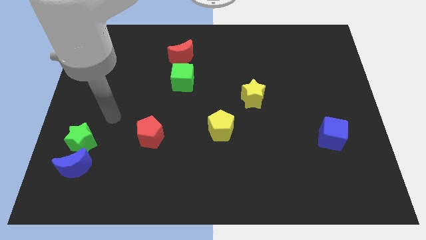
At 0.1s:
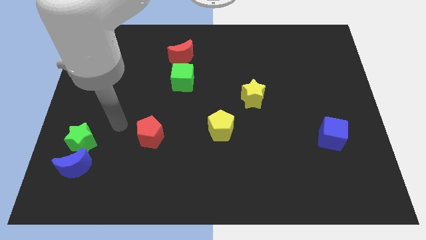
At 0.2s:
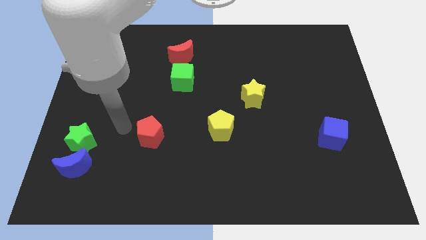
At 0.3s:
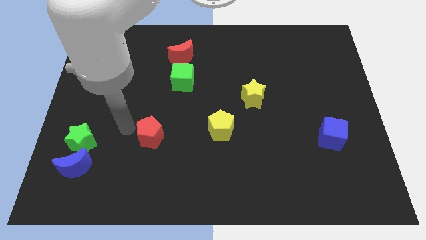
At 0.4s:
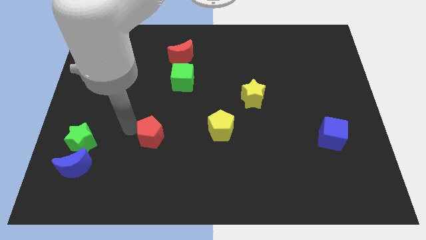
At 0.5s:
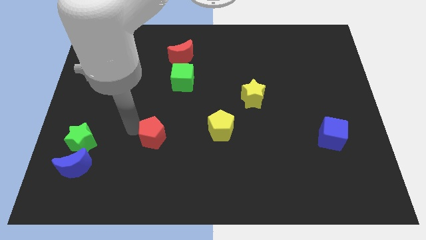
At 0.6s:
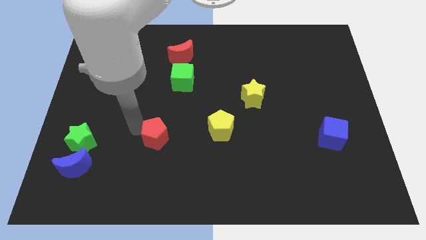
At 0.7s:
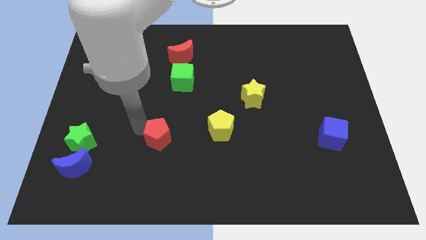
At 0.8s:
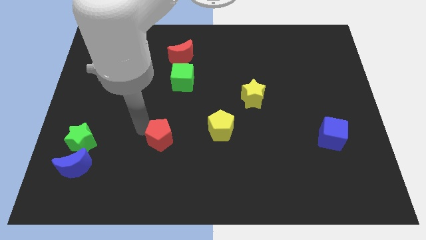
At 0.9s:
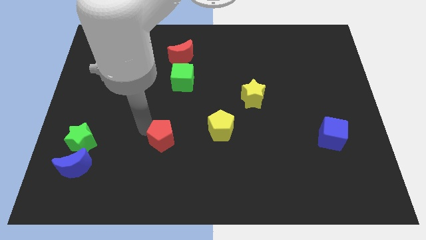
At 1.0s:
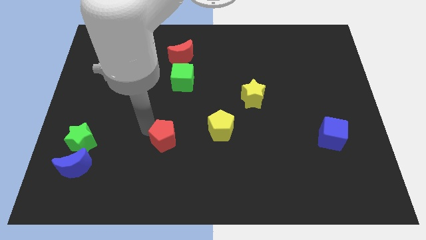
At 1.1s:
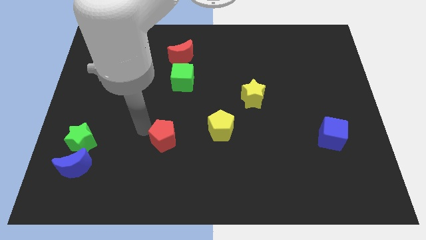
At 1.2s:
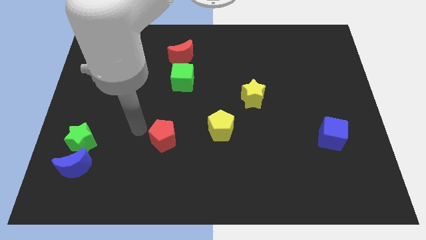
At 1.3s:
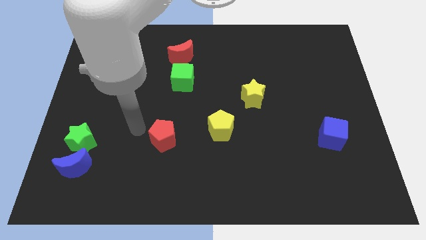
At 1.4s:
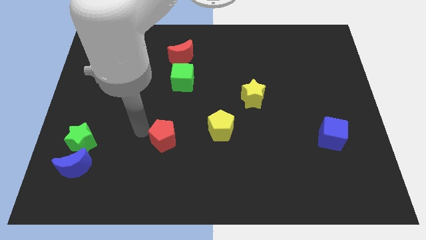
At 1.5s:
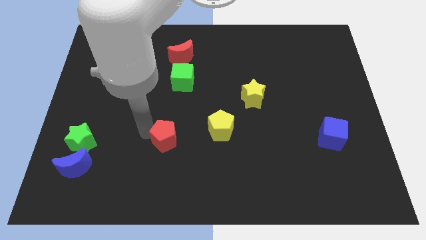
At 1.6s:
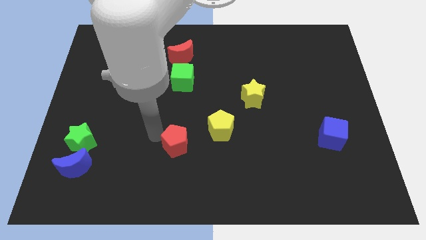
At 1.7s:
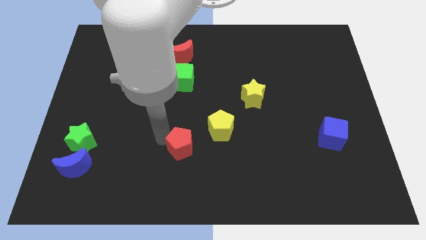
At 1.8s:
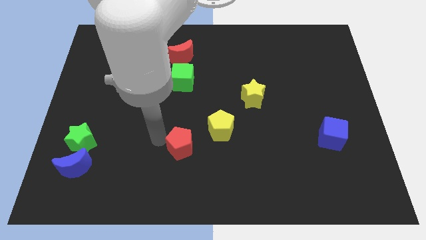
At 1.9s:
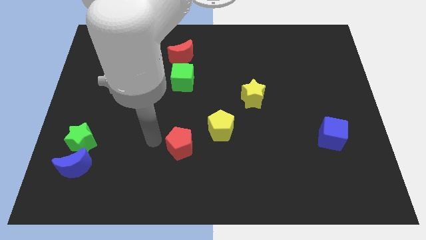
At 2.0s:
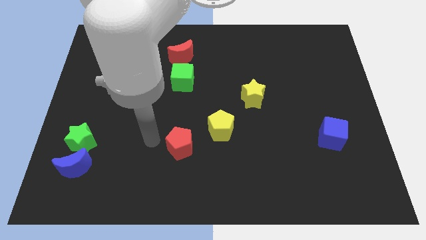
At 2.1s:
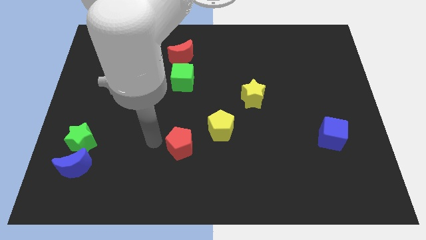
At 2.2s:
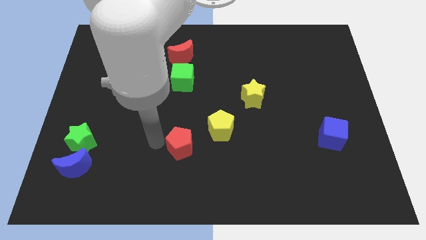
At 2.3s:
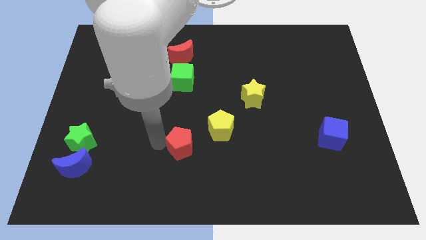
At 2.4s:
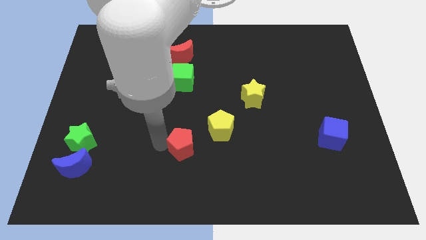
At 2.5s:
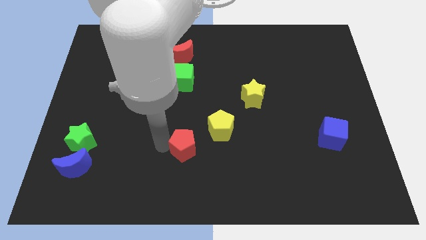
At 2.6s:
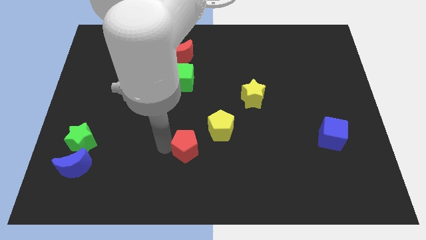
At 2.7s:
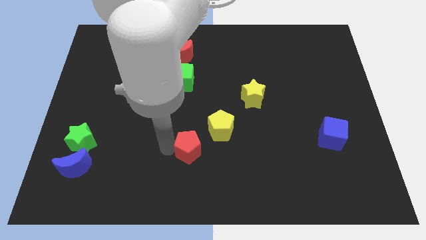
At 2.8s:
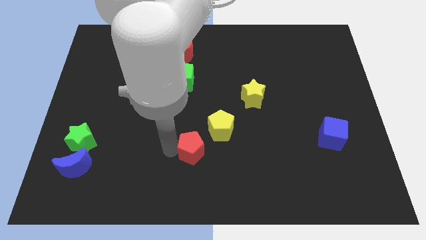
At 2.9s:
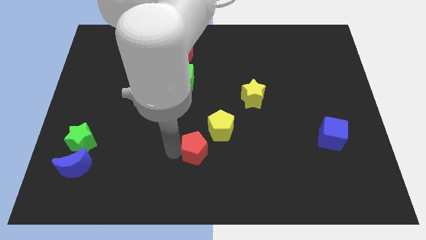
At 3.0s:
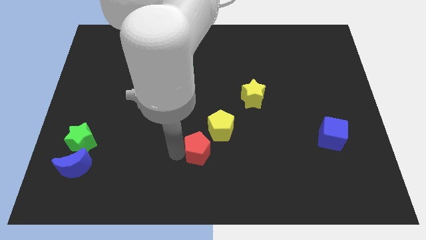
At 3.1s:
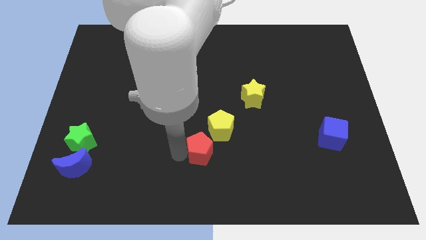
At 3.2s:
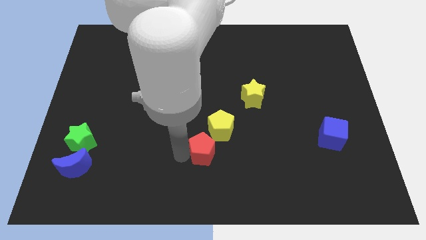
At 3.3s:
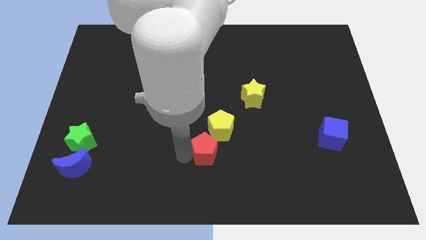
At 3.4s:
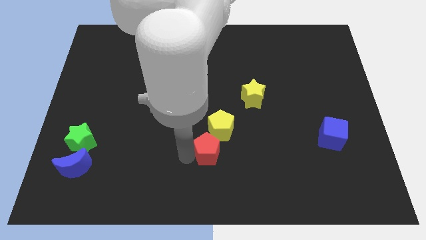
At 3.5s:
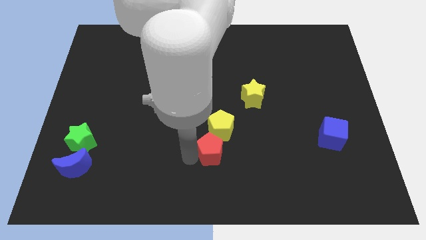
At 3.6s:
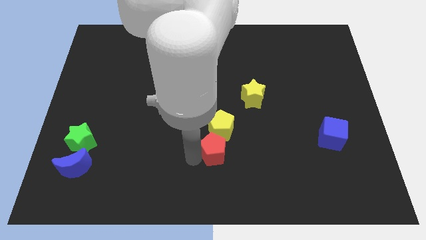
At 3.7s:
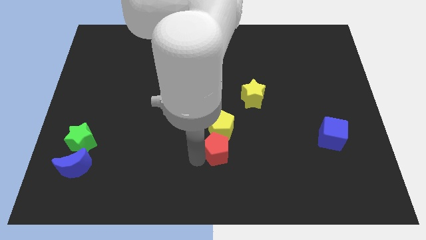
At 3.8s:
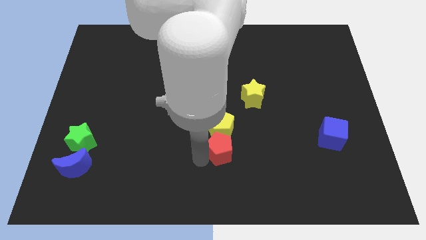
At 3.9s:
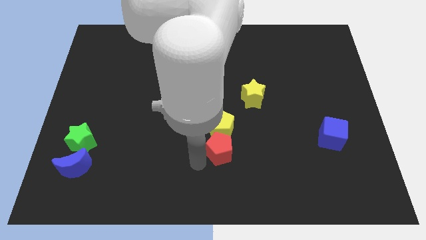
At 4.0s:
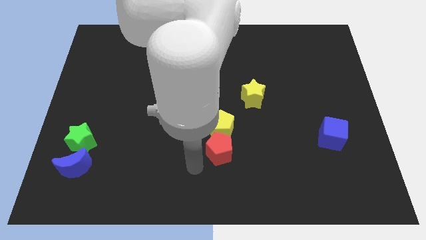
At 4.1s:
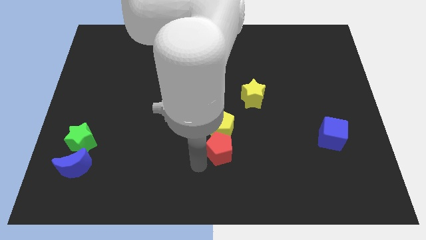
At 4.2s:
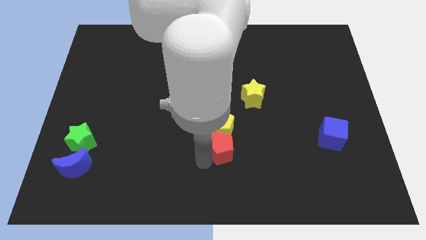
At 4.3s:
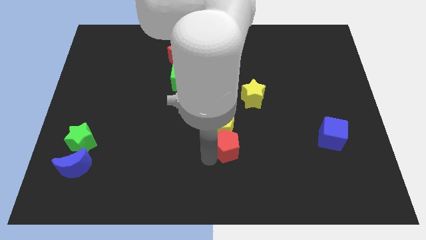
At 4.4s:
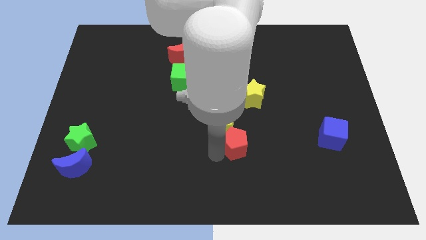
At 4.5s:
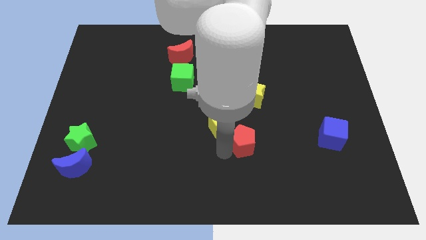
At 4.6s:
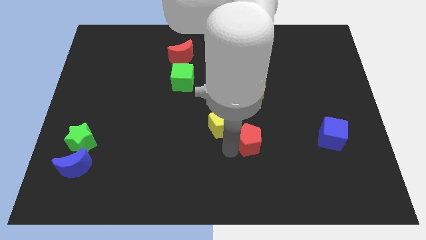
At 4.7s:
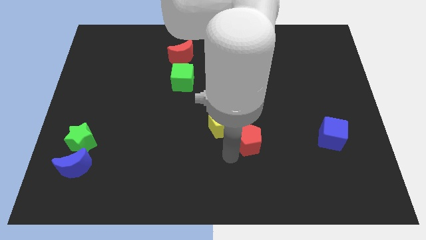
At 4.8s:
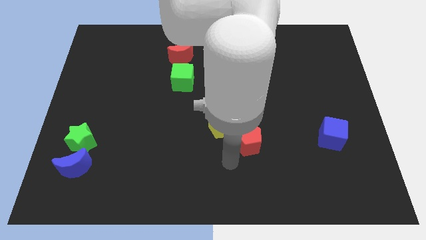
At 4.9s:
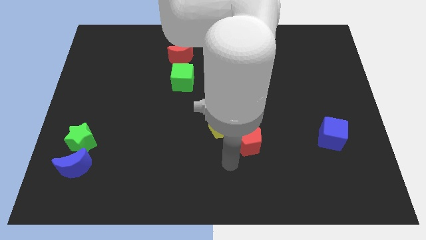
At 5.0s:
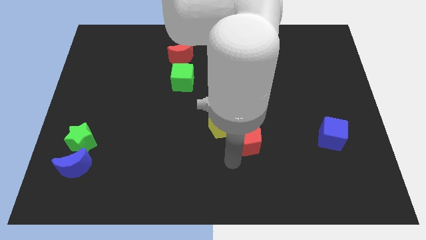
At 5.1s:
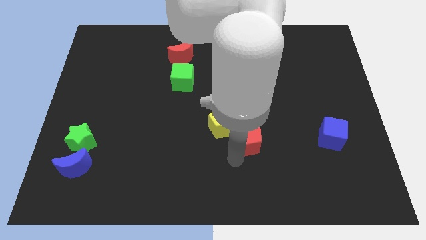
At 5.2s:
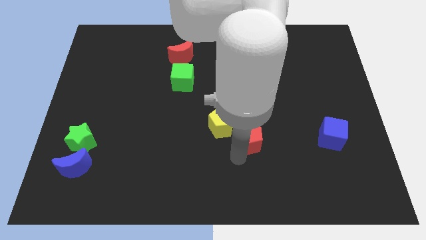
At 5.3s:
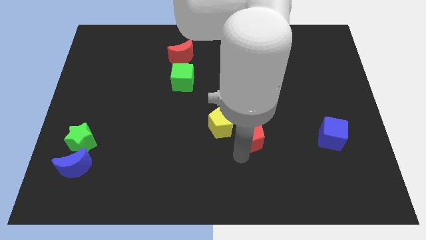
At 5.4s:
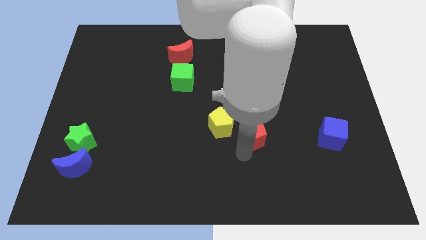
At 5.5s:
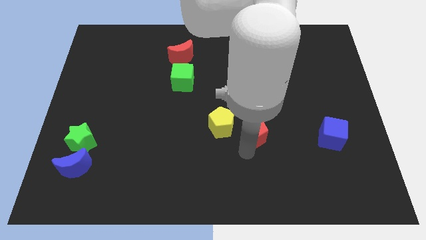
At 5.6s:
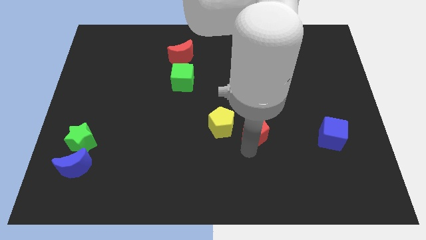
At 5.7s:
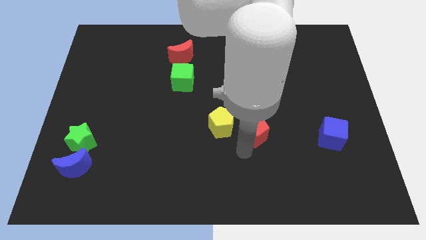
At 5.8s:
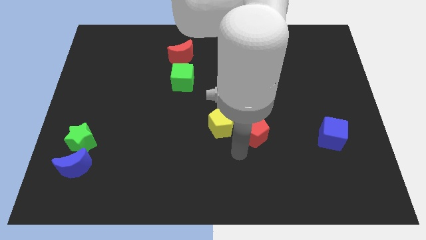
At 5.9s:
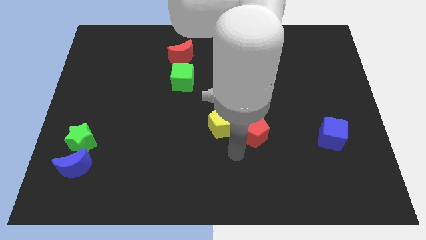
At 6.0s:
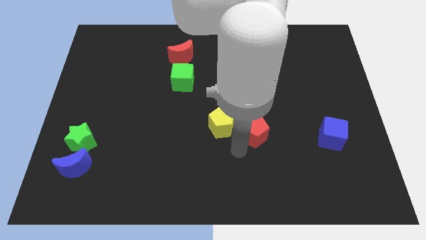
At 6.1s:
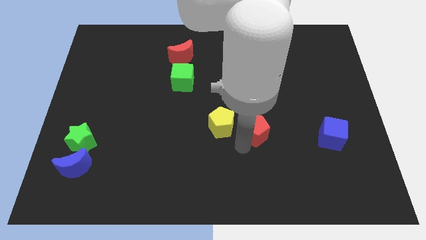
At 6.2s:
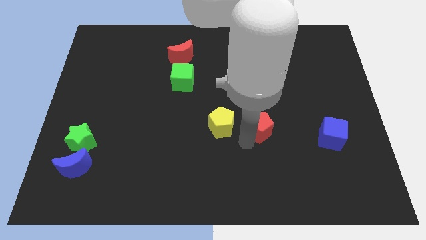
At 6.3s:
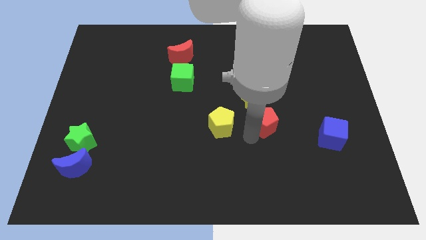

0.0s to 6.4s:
push the red pentagon to the bottom right of the yellow star

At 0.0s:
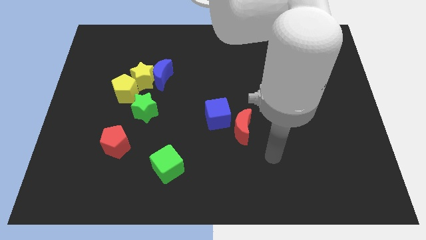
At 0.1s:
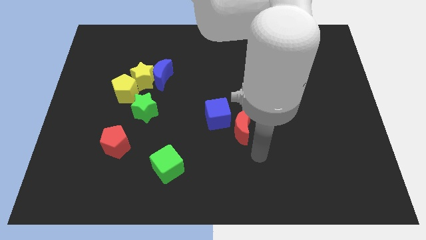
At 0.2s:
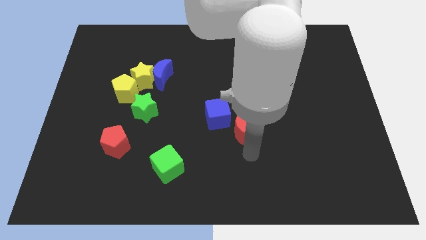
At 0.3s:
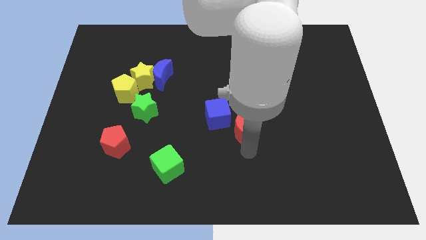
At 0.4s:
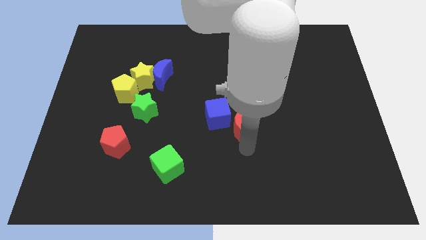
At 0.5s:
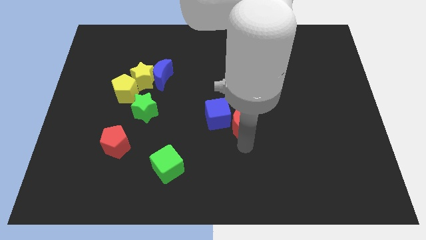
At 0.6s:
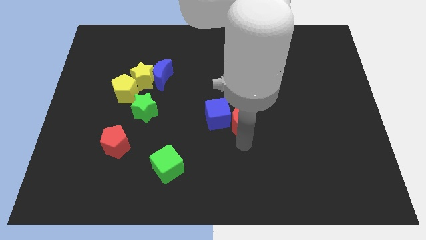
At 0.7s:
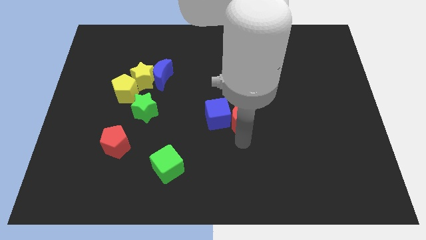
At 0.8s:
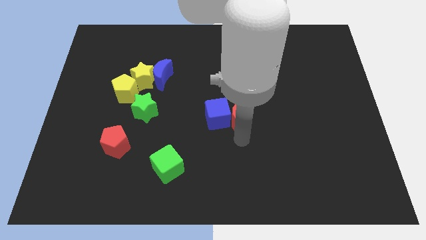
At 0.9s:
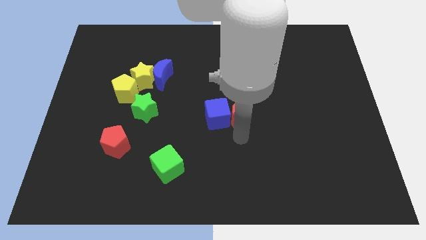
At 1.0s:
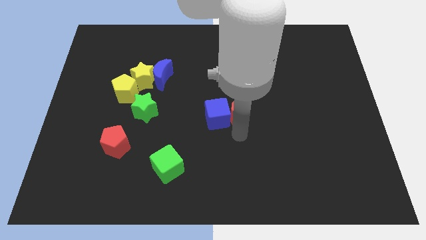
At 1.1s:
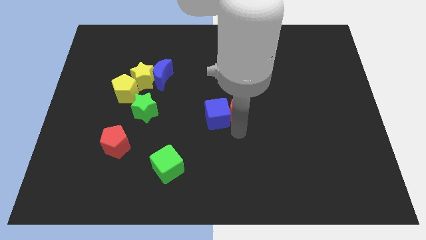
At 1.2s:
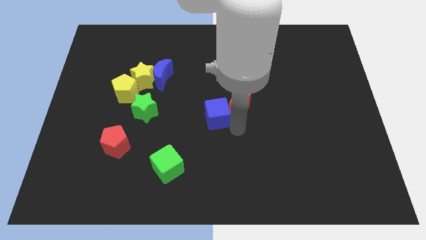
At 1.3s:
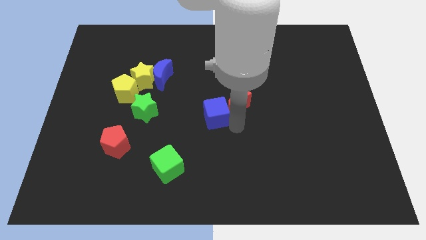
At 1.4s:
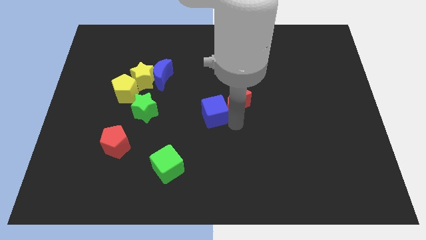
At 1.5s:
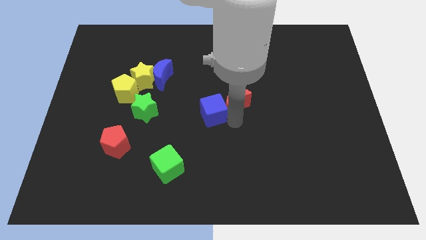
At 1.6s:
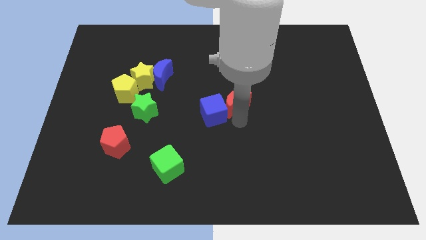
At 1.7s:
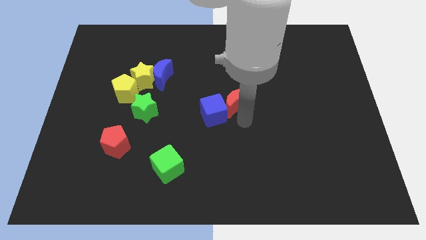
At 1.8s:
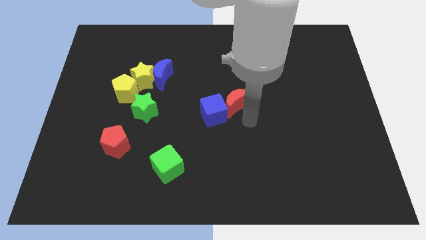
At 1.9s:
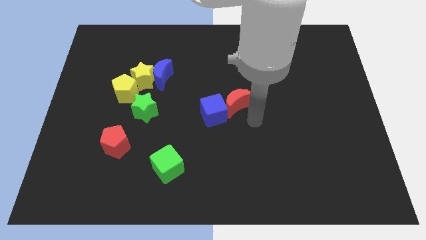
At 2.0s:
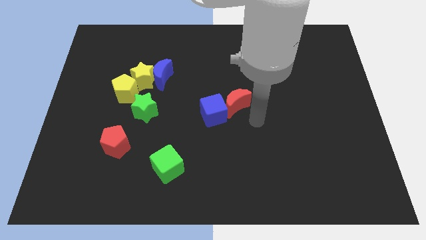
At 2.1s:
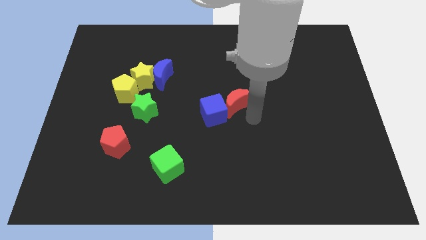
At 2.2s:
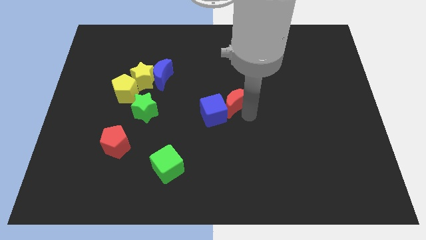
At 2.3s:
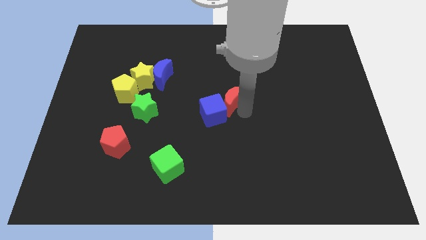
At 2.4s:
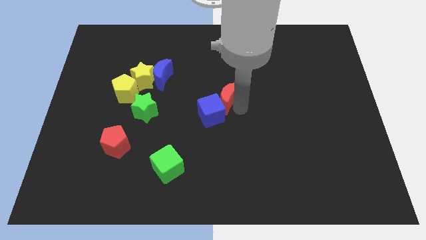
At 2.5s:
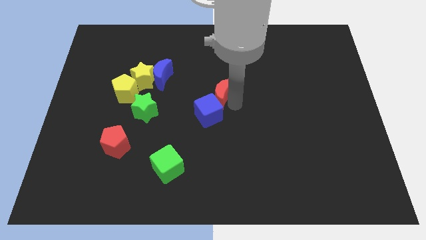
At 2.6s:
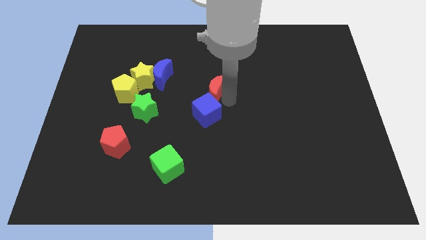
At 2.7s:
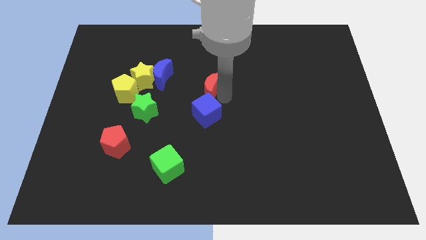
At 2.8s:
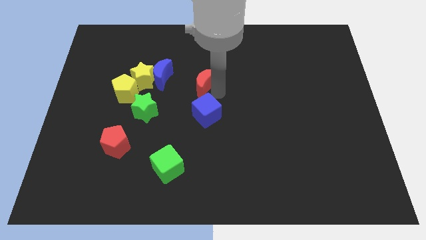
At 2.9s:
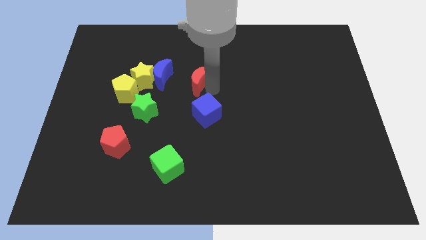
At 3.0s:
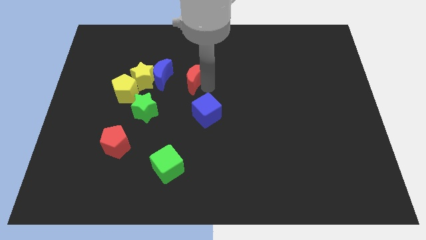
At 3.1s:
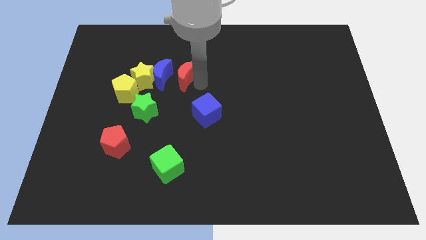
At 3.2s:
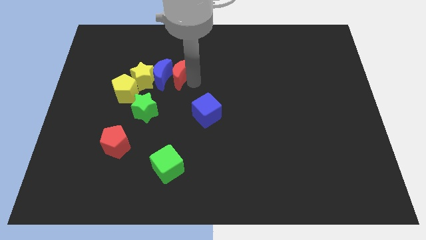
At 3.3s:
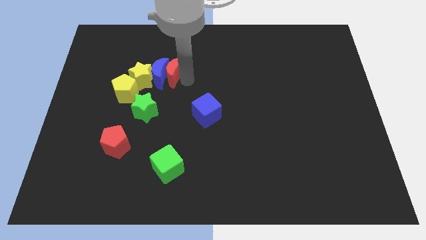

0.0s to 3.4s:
push the red moon to the top right of the yellow star
